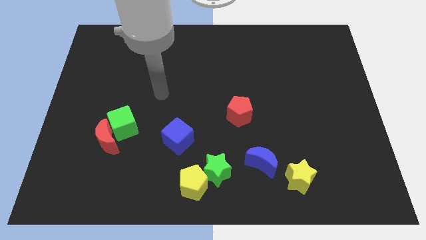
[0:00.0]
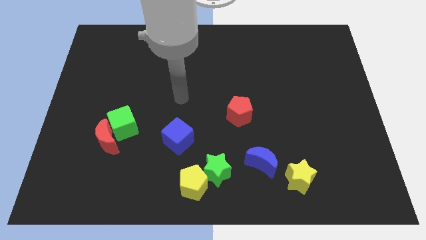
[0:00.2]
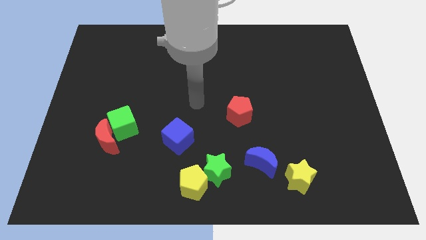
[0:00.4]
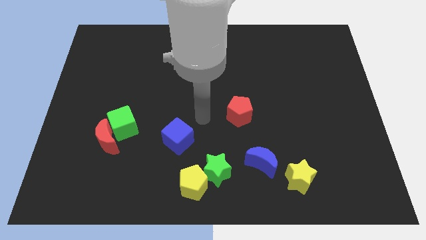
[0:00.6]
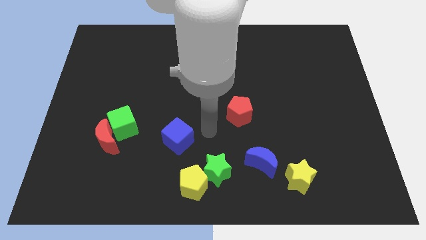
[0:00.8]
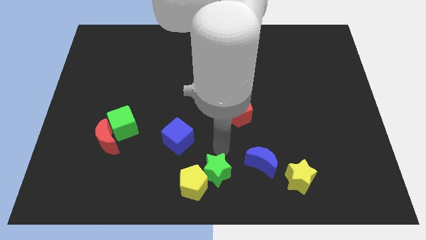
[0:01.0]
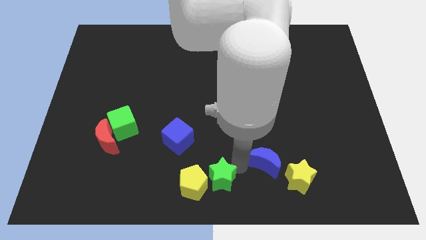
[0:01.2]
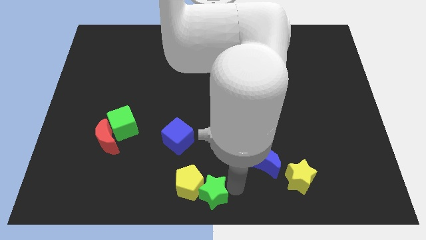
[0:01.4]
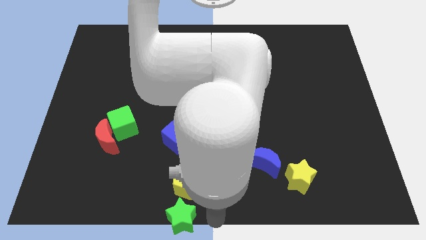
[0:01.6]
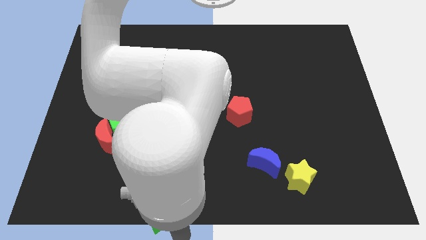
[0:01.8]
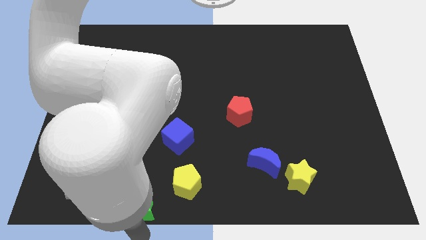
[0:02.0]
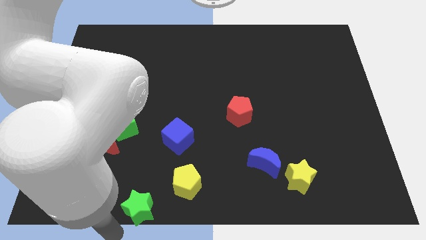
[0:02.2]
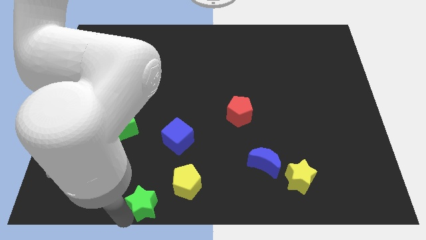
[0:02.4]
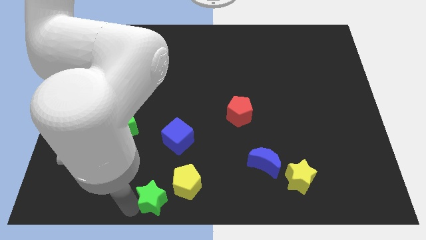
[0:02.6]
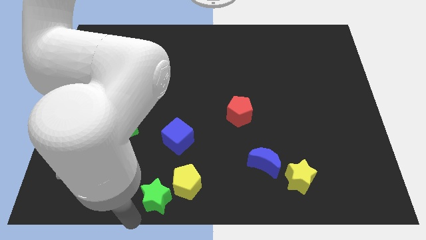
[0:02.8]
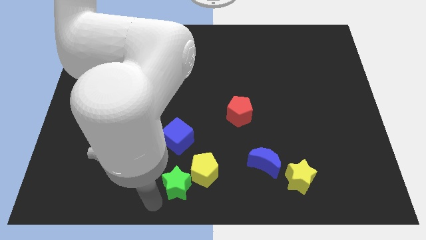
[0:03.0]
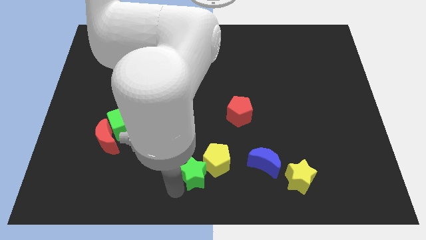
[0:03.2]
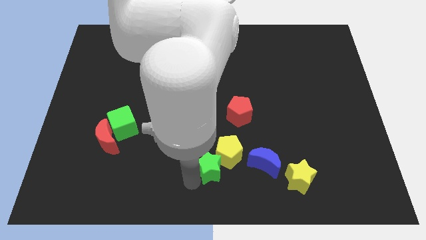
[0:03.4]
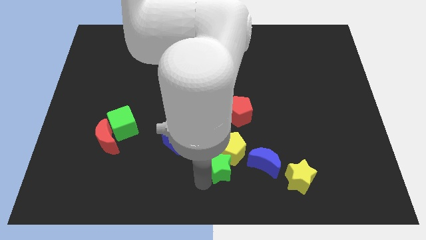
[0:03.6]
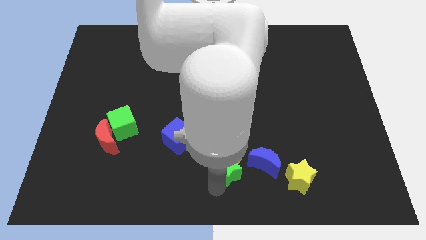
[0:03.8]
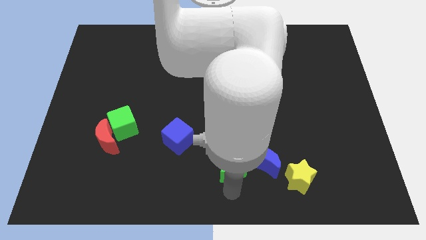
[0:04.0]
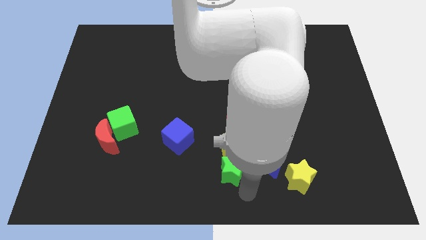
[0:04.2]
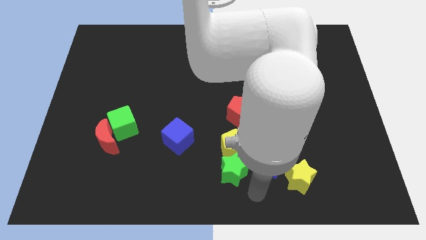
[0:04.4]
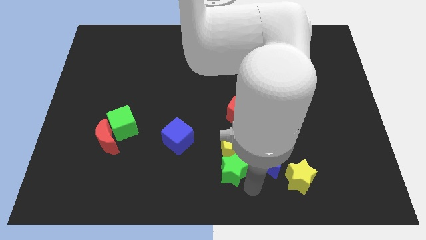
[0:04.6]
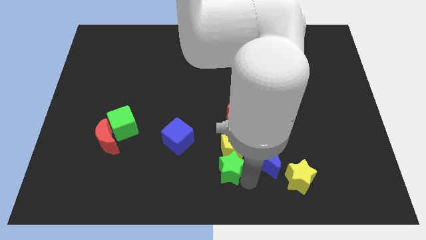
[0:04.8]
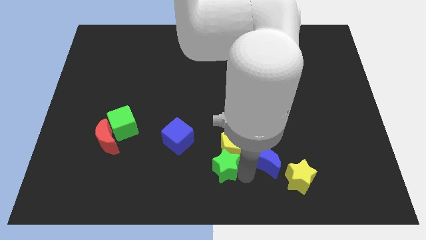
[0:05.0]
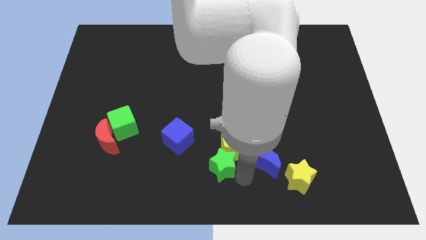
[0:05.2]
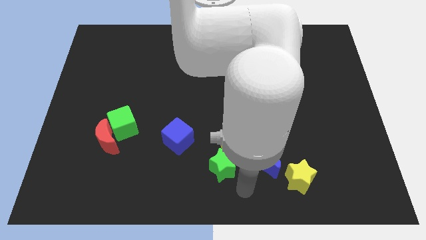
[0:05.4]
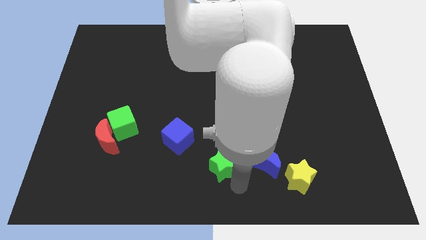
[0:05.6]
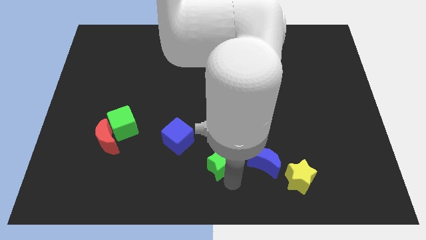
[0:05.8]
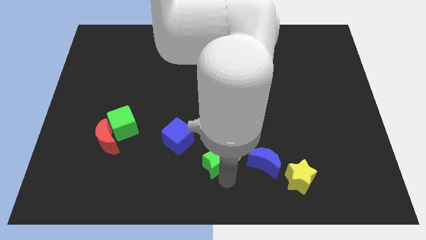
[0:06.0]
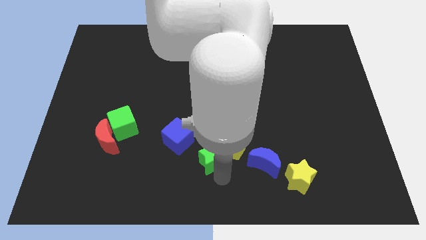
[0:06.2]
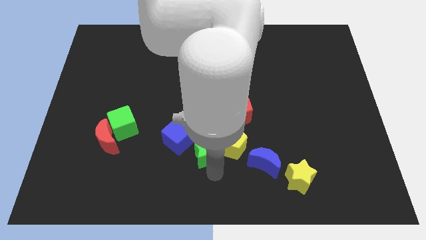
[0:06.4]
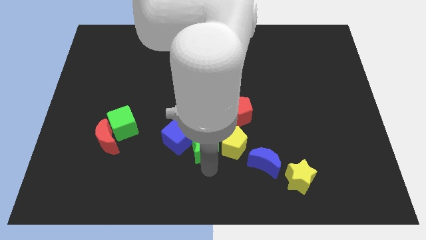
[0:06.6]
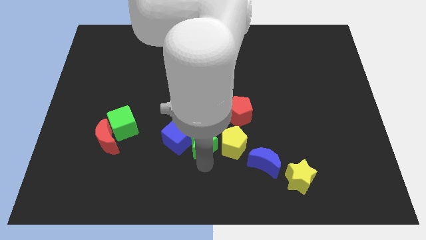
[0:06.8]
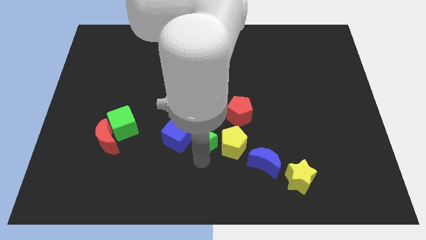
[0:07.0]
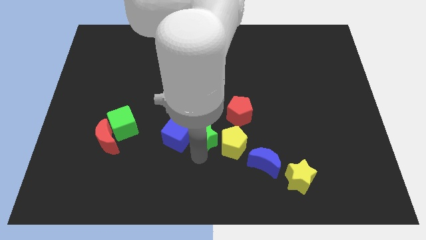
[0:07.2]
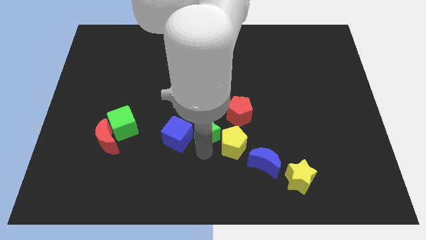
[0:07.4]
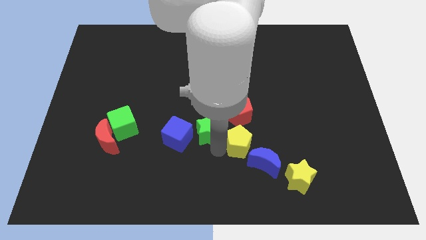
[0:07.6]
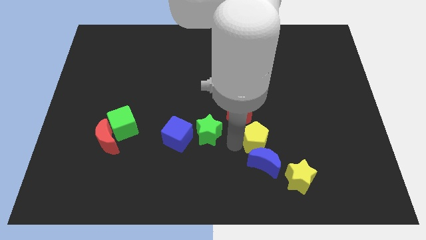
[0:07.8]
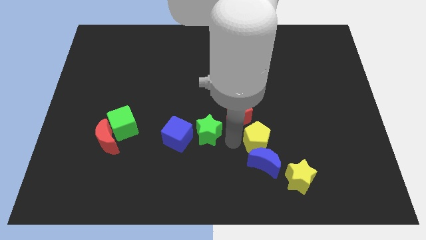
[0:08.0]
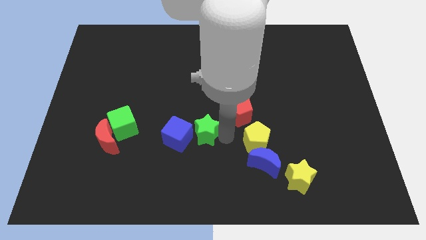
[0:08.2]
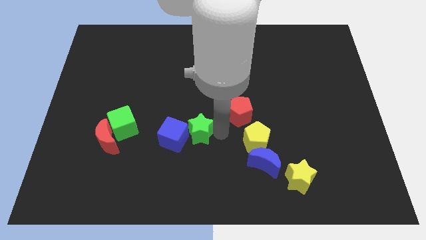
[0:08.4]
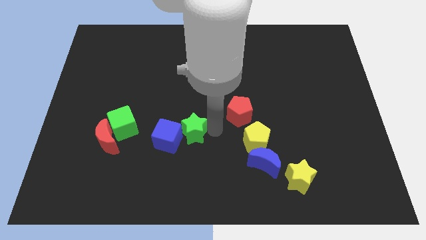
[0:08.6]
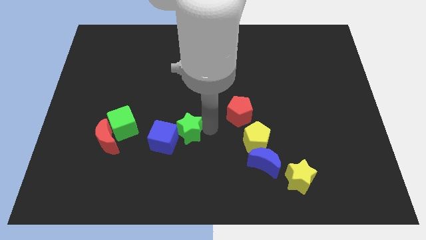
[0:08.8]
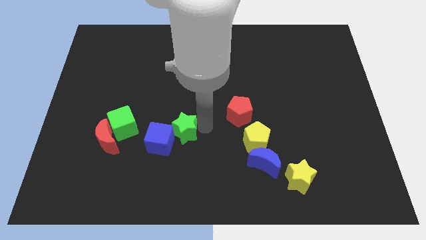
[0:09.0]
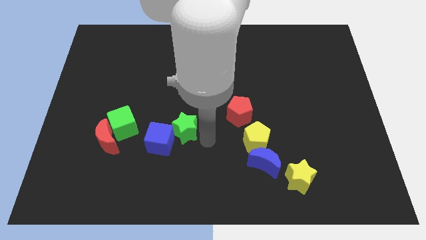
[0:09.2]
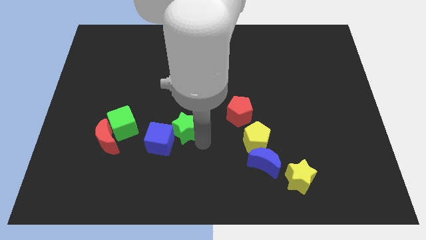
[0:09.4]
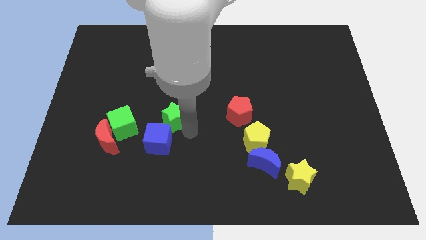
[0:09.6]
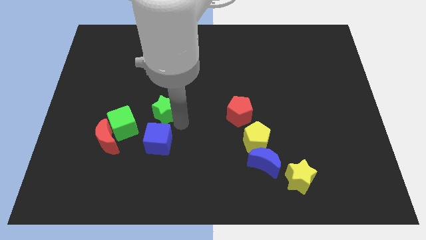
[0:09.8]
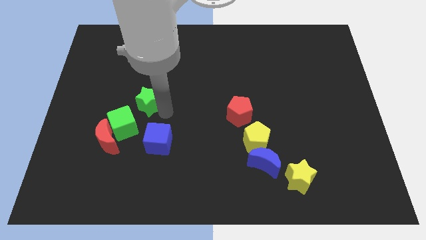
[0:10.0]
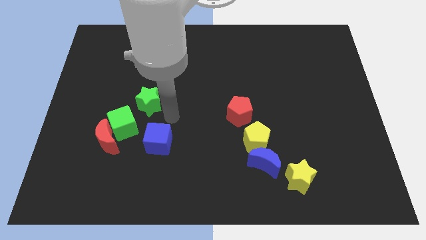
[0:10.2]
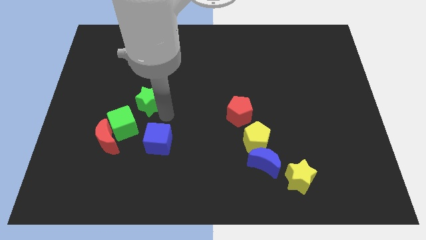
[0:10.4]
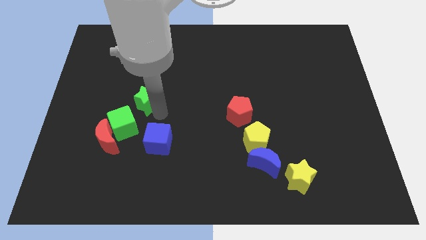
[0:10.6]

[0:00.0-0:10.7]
push the green star above the green cube

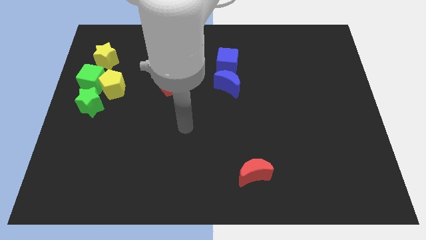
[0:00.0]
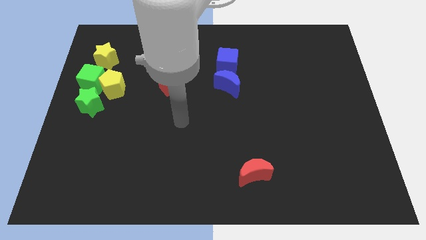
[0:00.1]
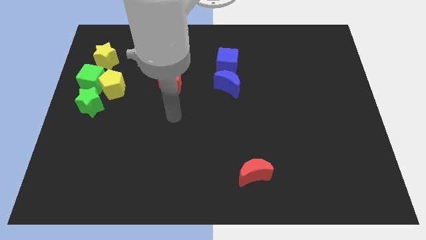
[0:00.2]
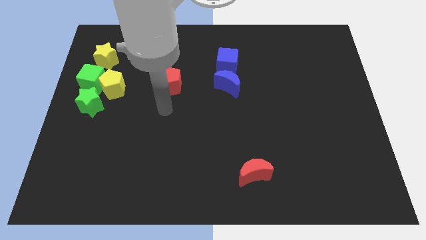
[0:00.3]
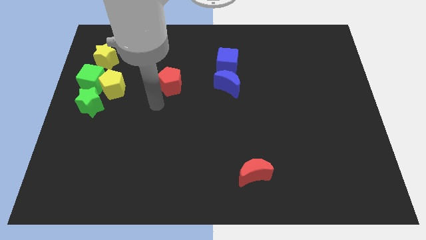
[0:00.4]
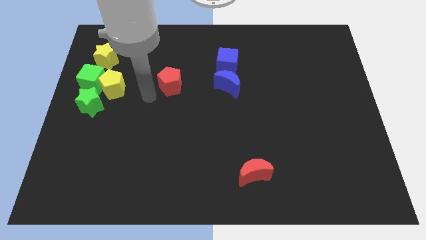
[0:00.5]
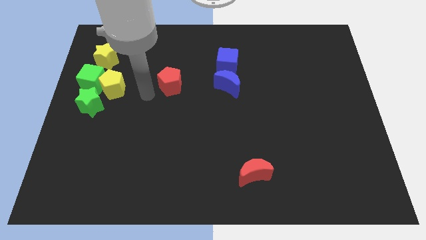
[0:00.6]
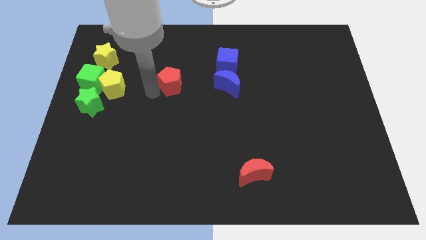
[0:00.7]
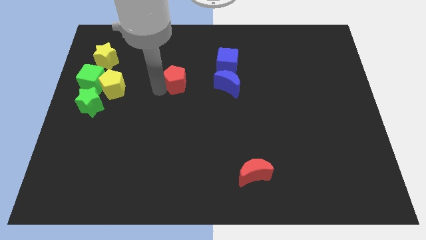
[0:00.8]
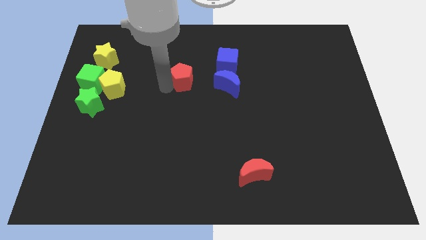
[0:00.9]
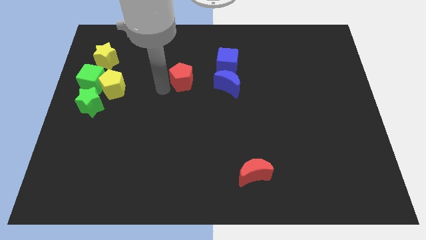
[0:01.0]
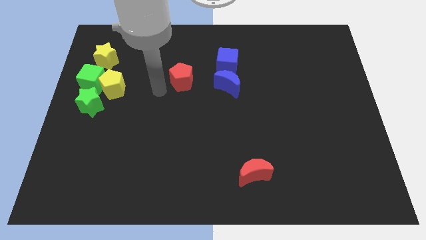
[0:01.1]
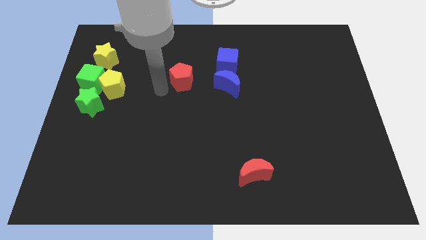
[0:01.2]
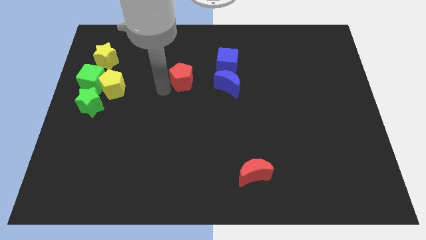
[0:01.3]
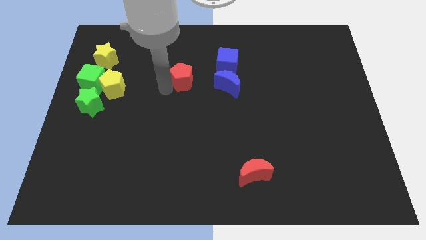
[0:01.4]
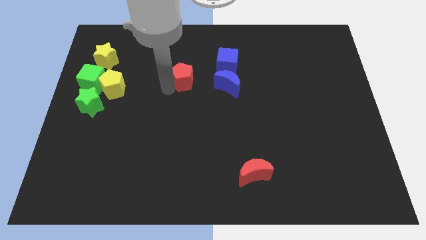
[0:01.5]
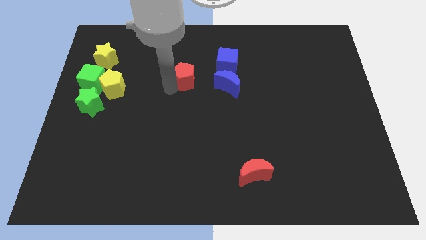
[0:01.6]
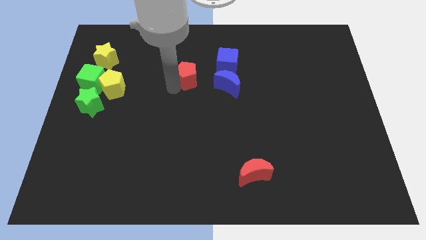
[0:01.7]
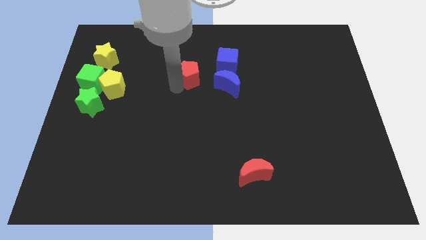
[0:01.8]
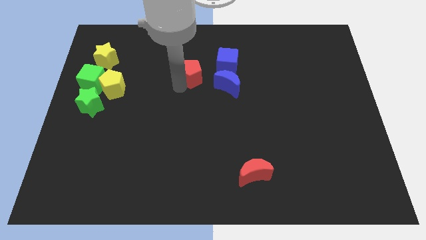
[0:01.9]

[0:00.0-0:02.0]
move the red pentagon to the top left of the blue moon
